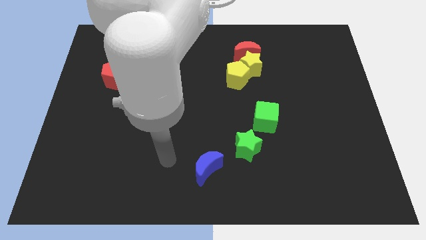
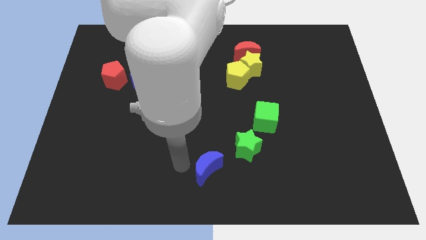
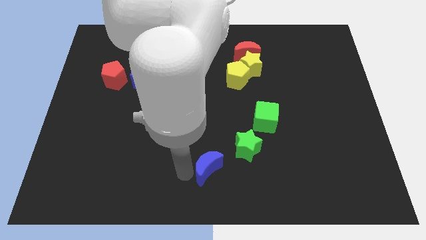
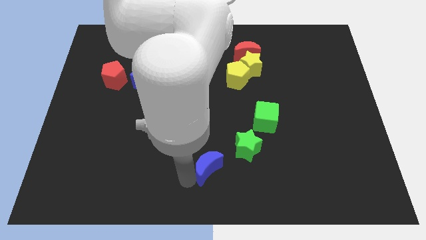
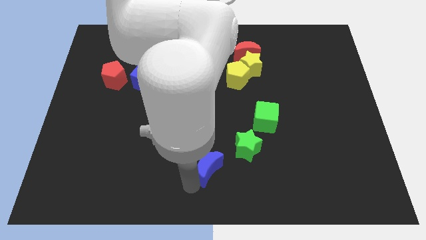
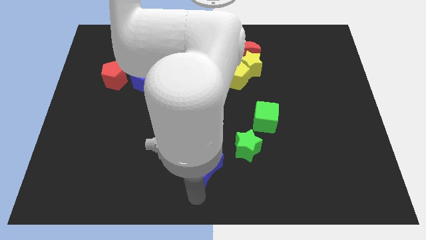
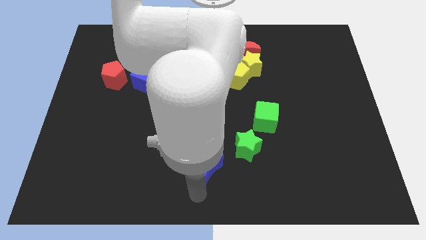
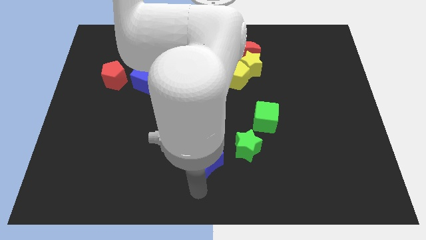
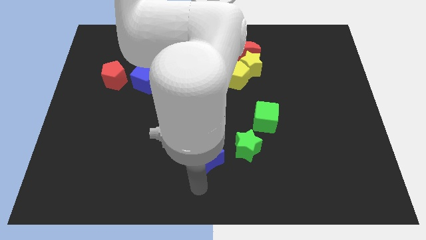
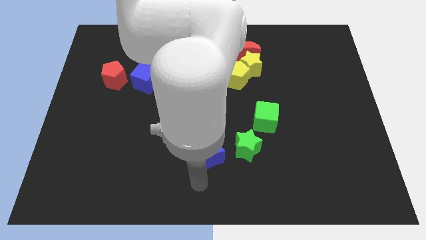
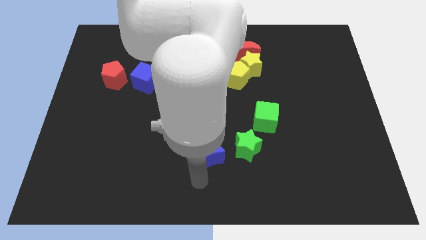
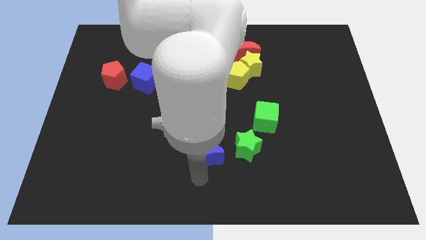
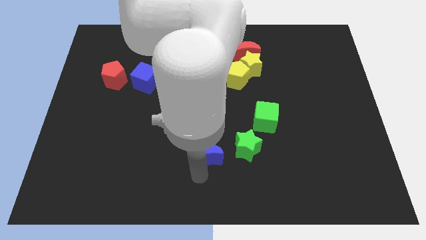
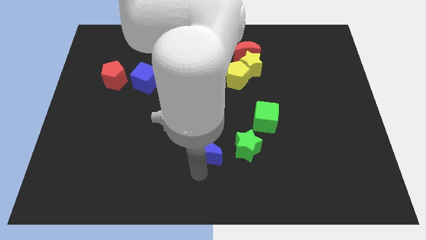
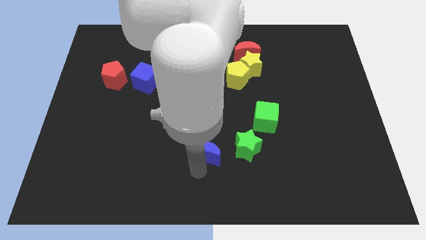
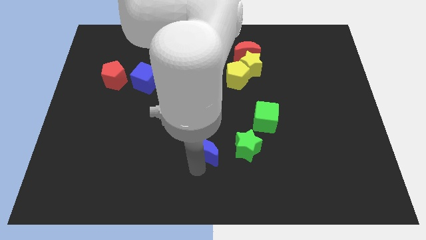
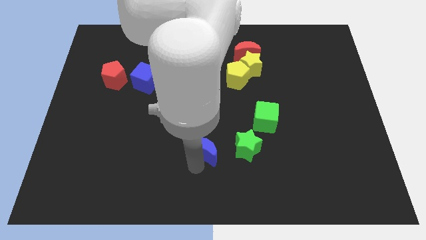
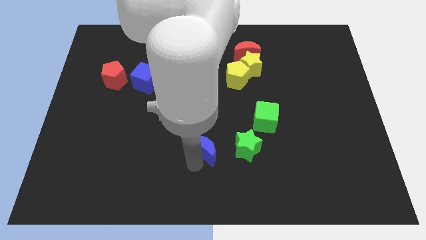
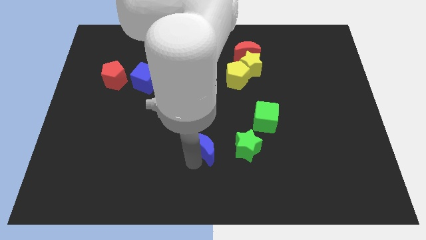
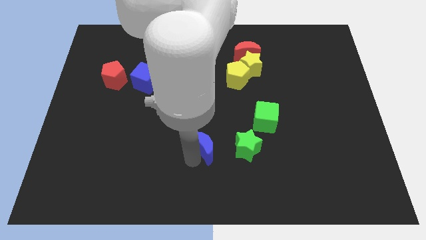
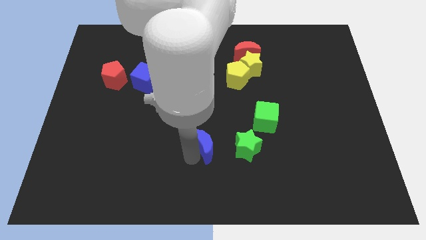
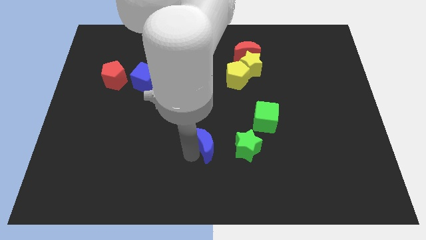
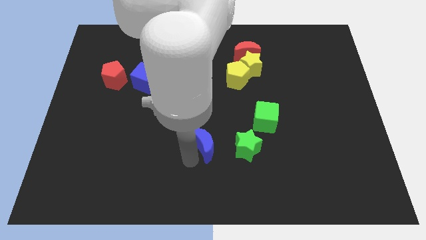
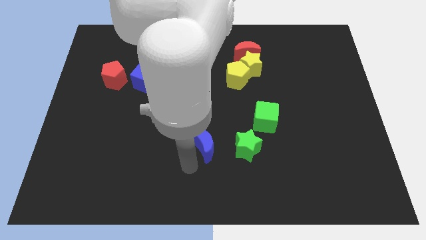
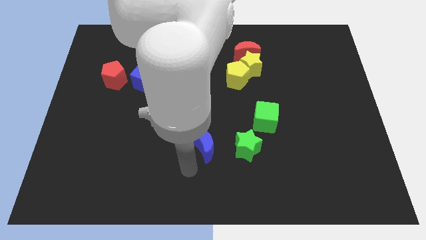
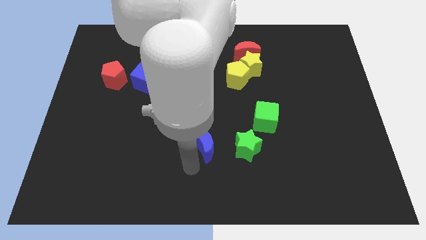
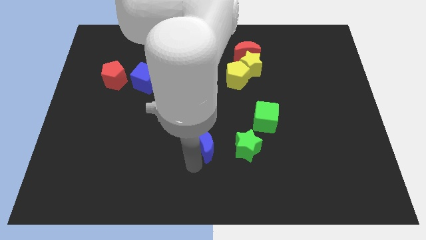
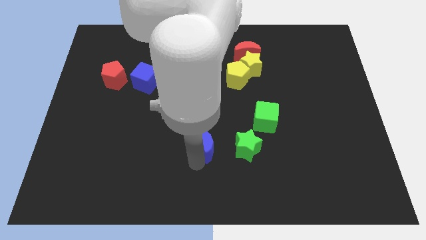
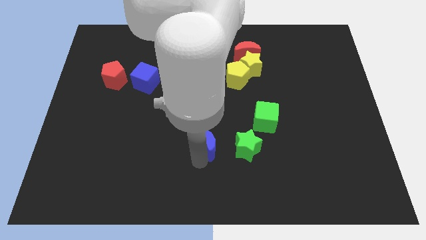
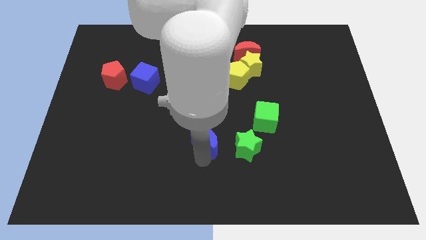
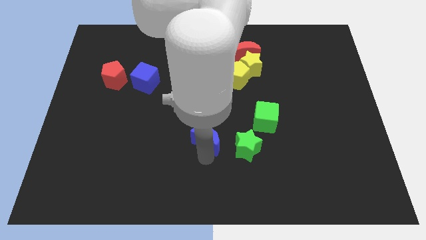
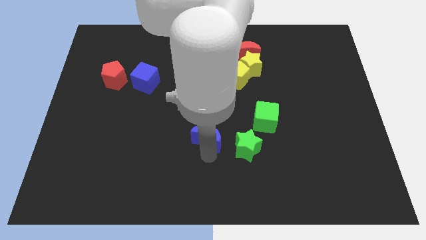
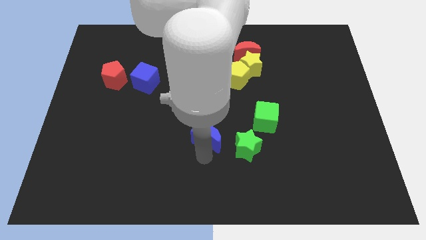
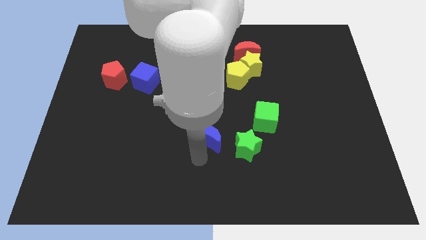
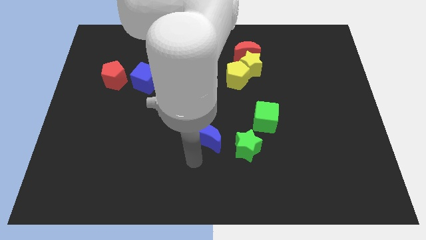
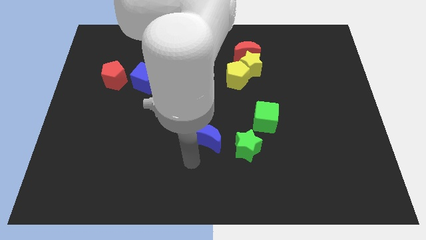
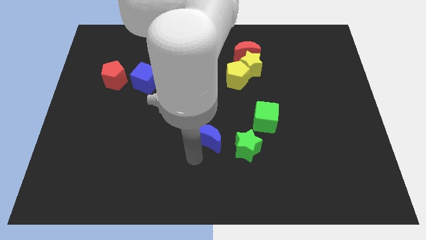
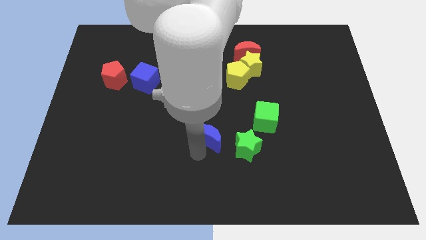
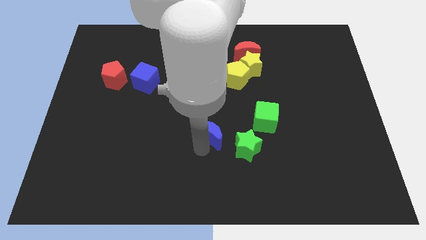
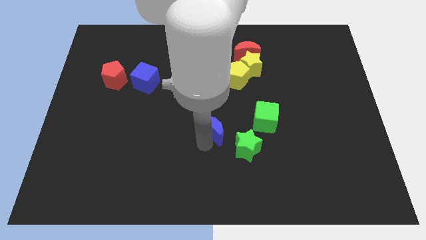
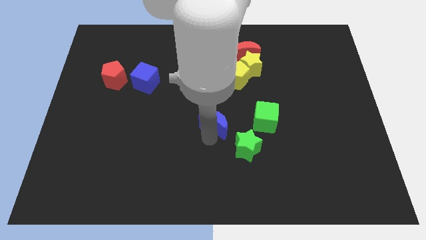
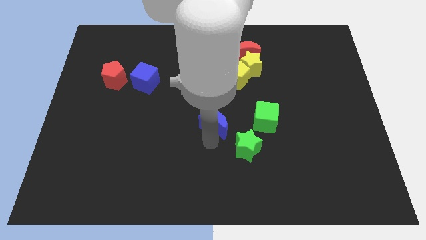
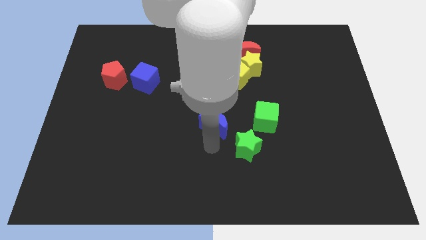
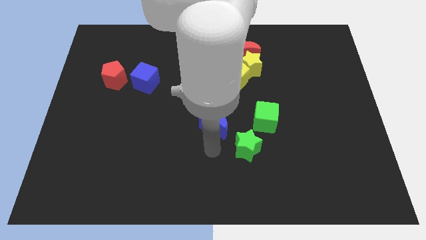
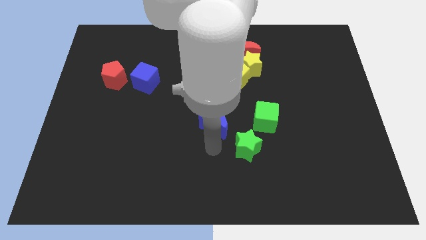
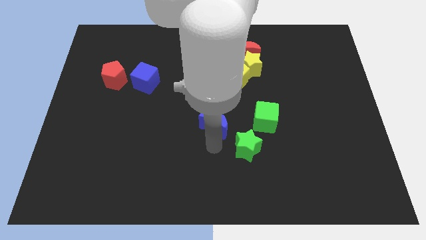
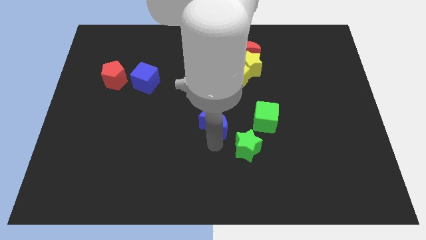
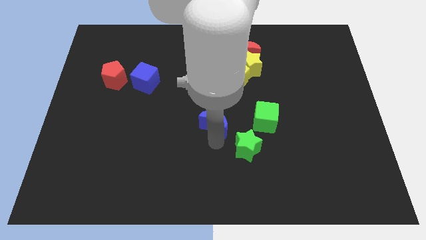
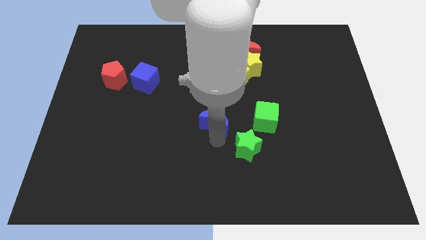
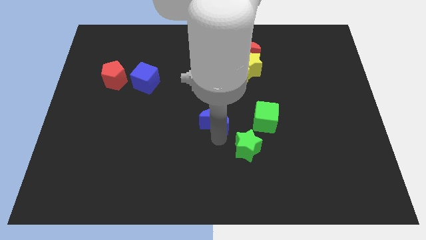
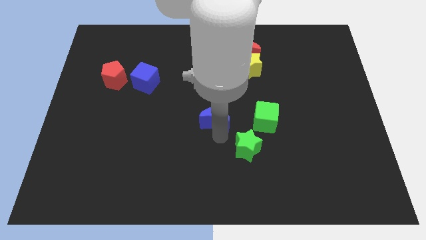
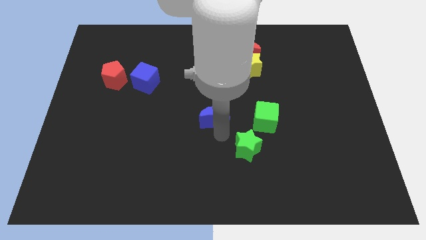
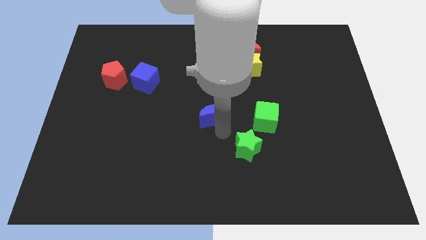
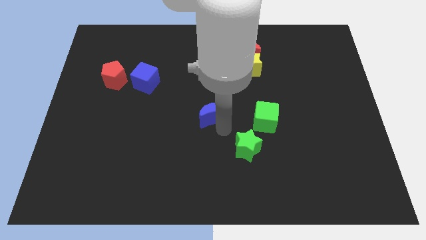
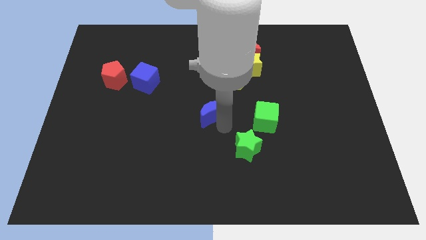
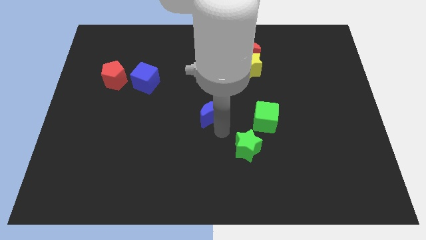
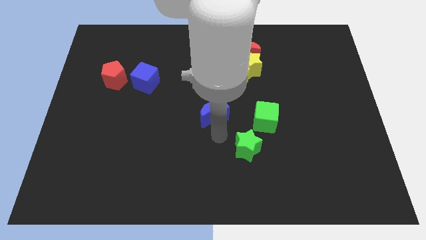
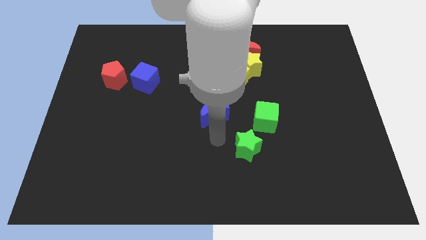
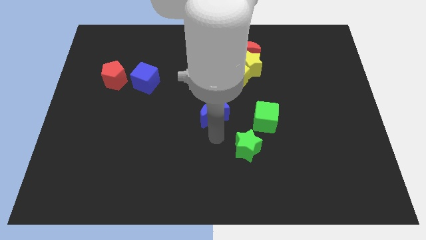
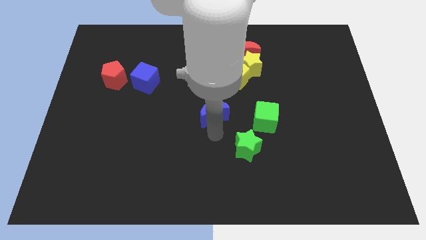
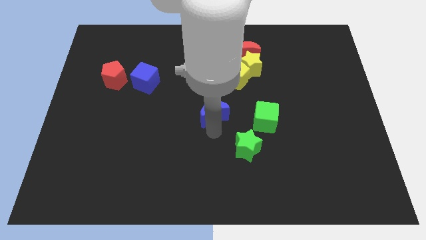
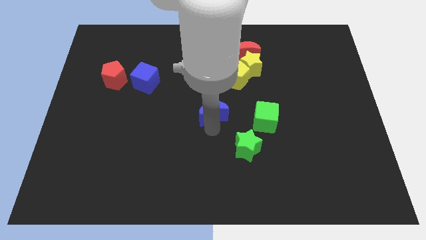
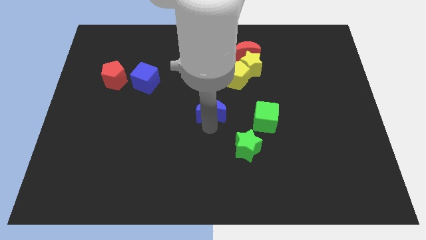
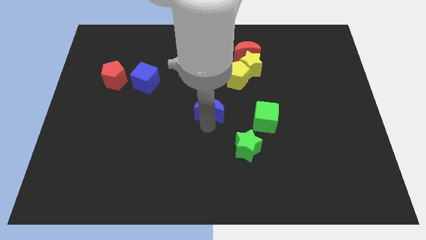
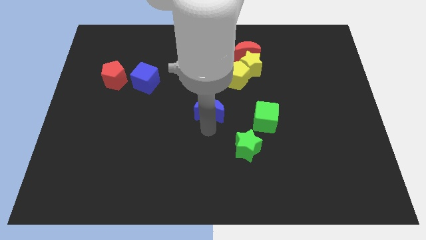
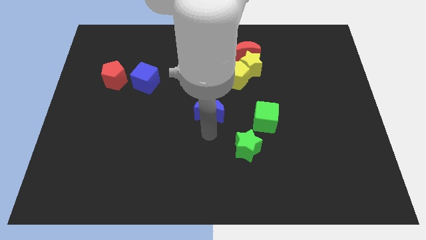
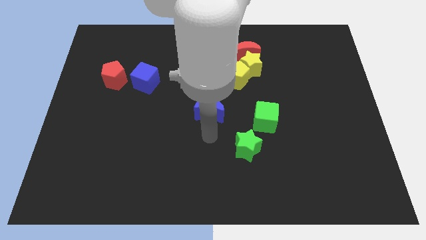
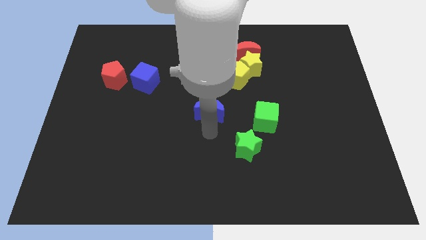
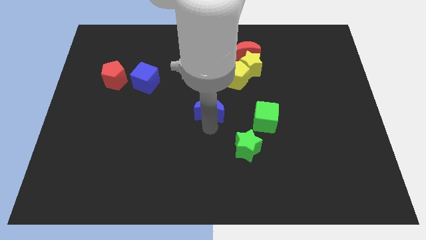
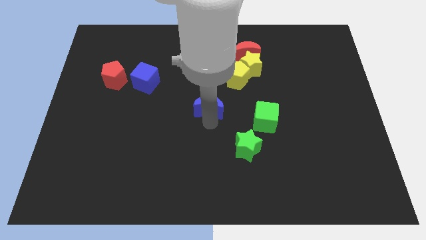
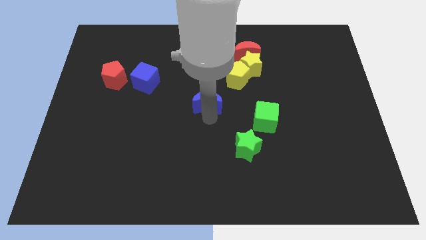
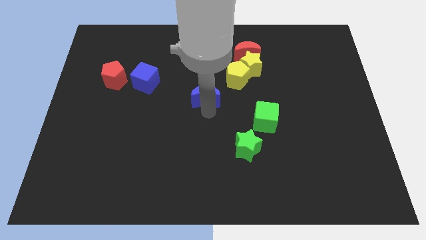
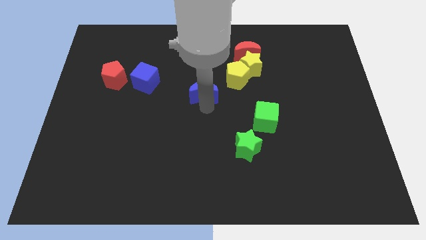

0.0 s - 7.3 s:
push the blue moon upwards

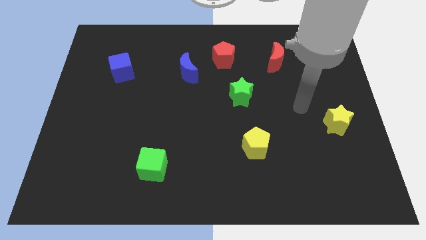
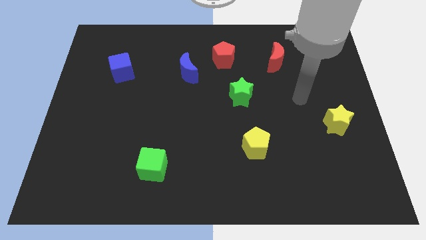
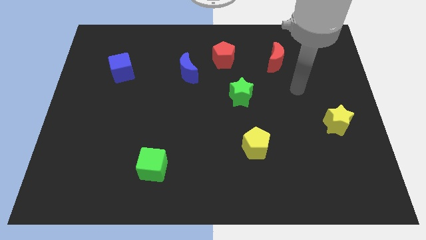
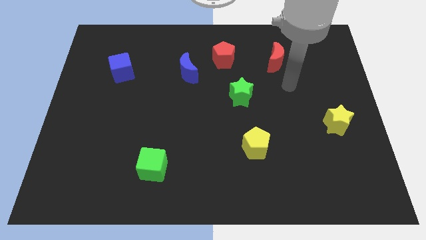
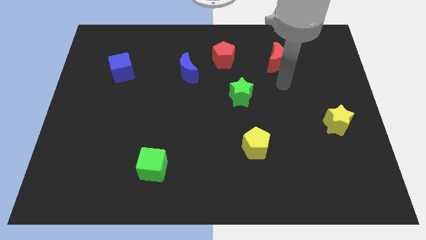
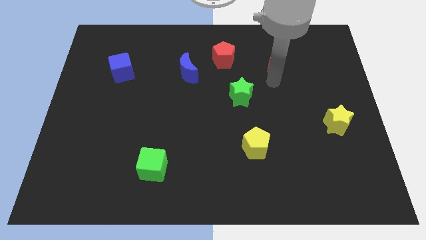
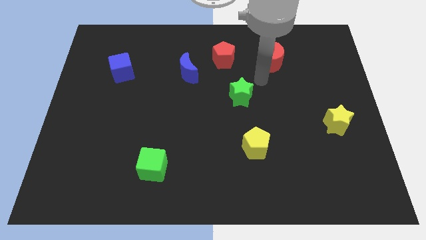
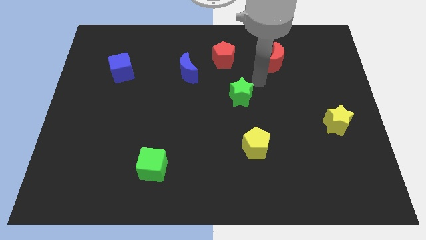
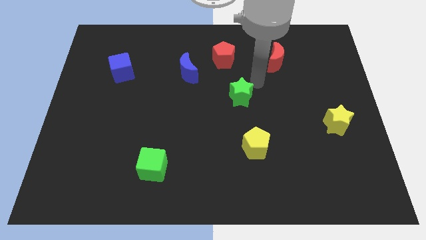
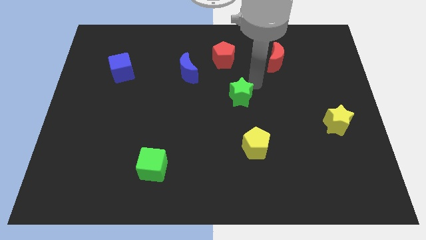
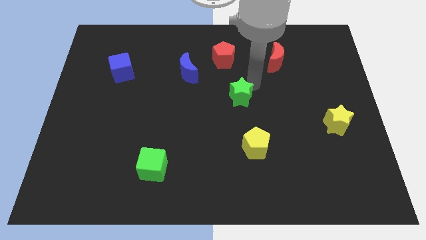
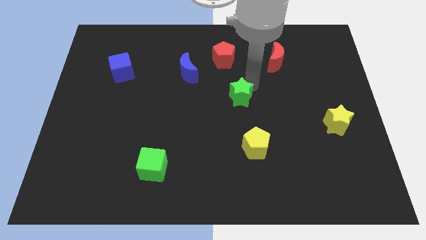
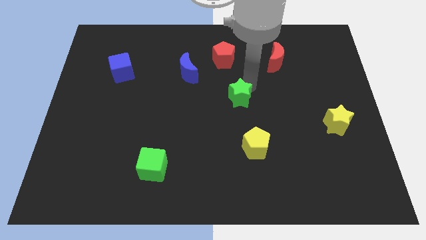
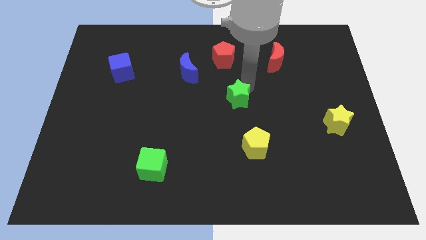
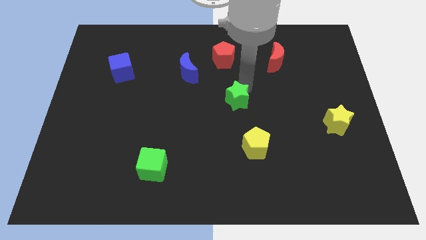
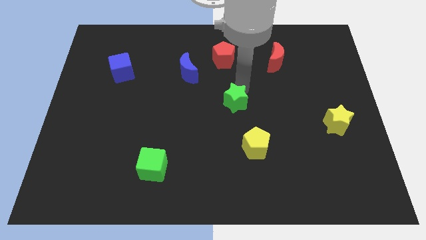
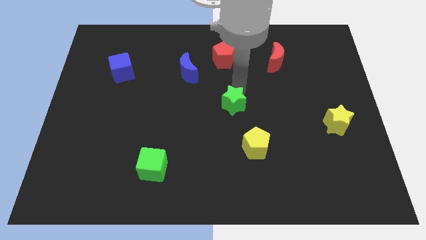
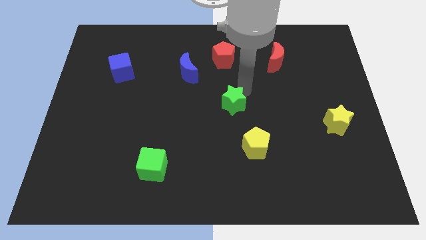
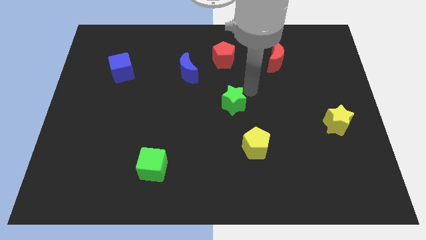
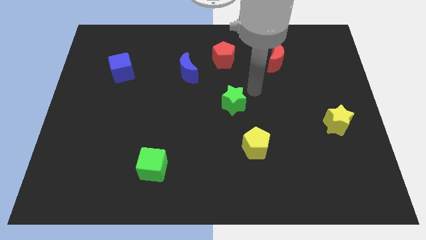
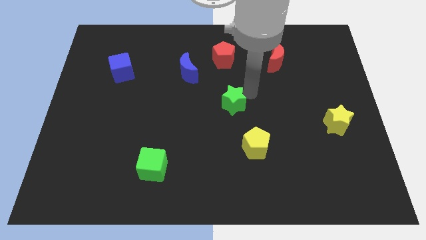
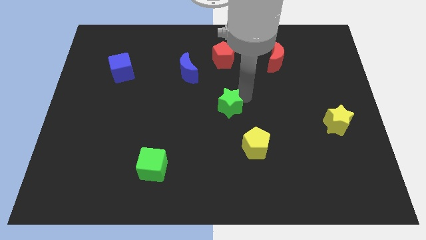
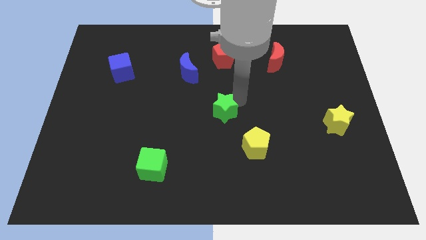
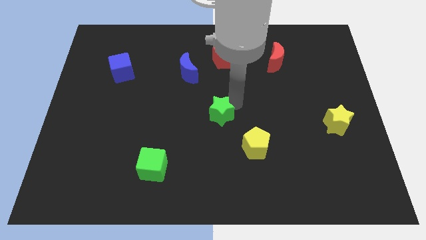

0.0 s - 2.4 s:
move the green star somewhat diagonally downwards and to the left
